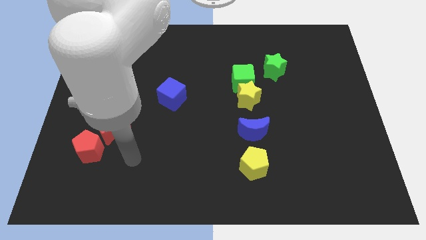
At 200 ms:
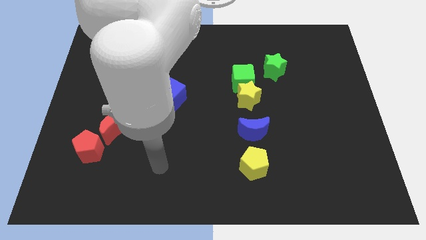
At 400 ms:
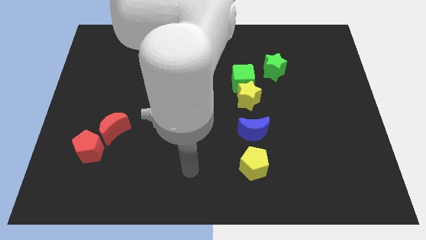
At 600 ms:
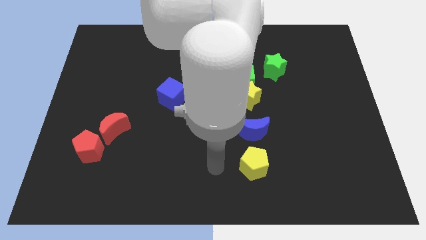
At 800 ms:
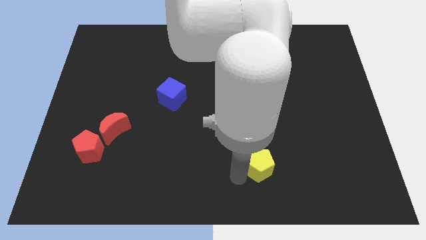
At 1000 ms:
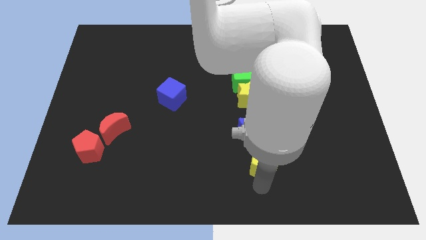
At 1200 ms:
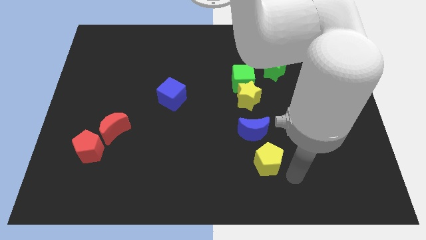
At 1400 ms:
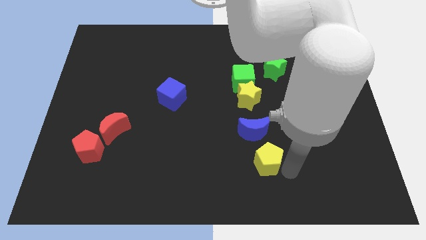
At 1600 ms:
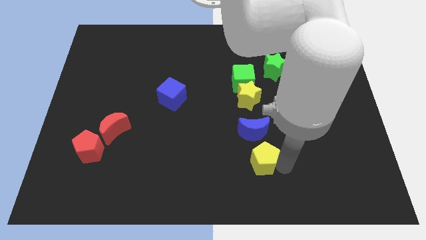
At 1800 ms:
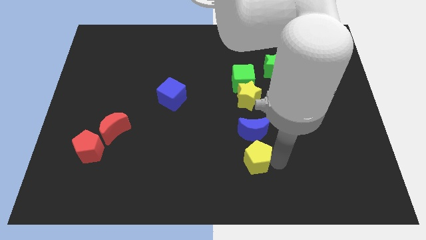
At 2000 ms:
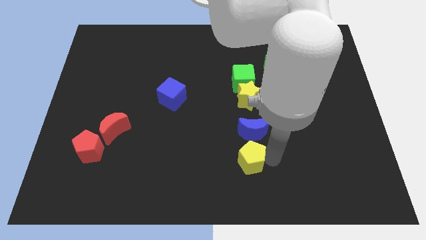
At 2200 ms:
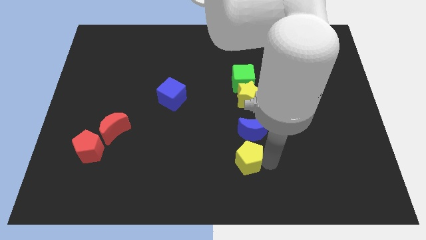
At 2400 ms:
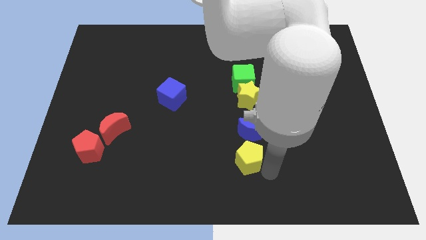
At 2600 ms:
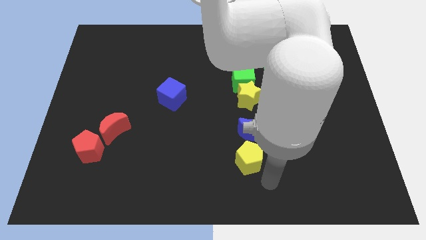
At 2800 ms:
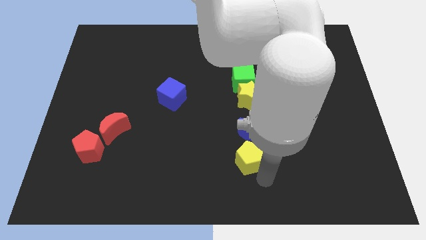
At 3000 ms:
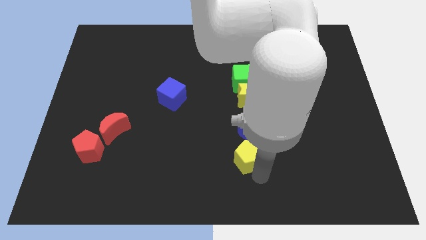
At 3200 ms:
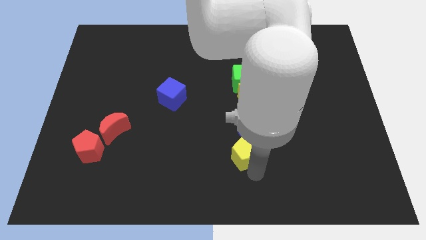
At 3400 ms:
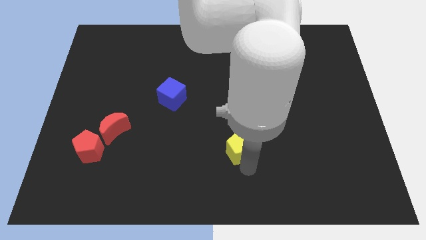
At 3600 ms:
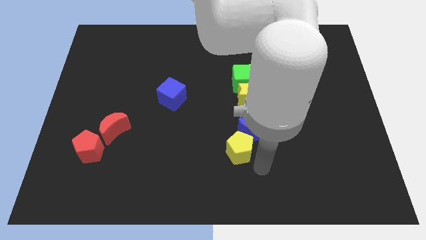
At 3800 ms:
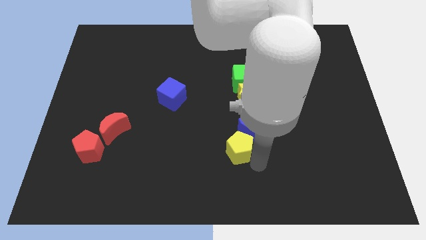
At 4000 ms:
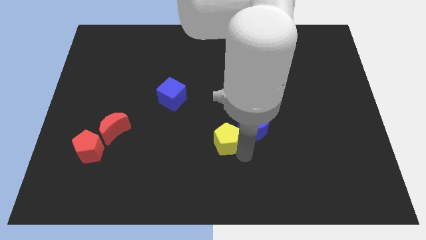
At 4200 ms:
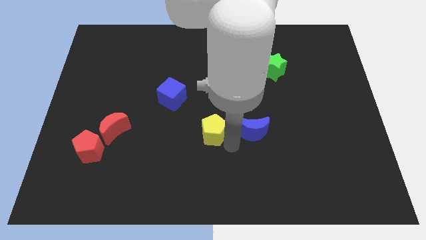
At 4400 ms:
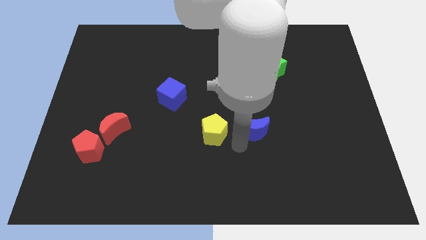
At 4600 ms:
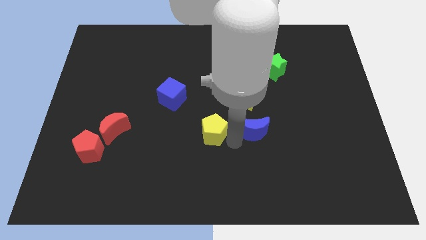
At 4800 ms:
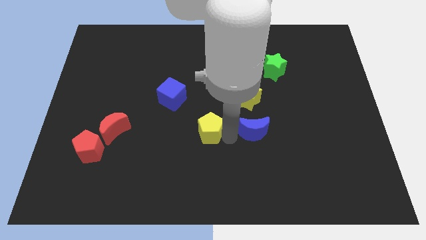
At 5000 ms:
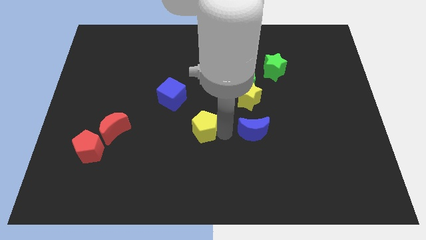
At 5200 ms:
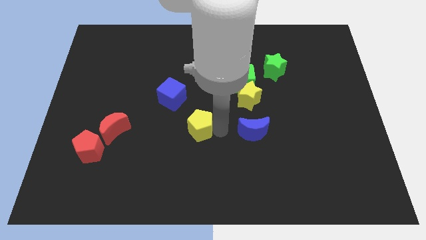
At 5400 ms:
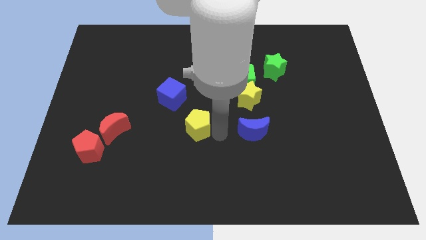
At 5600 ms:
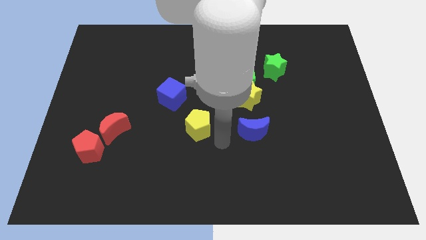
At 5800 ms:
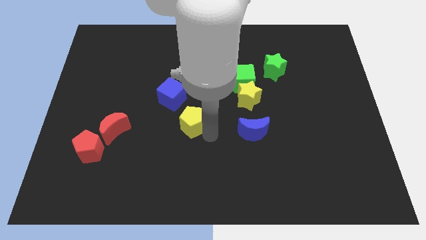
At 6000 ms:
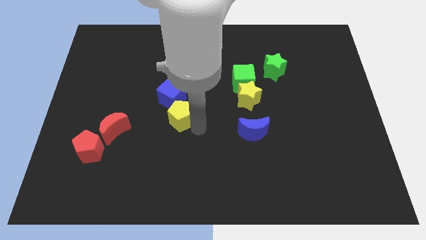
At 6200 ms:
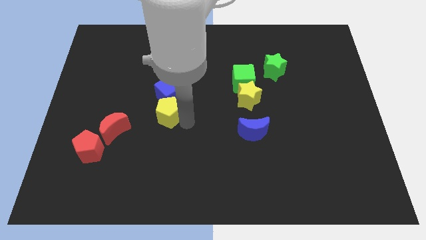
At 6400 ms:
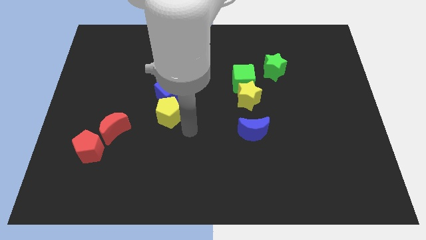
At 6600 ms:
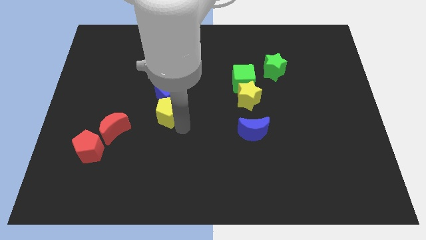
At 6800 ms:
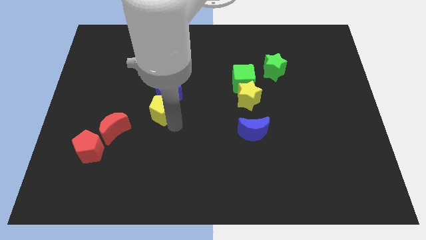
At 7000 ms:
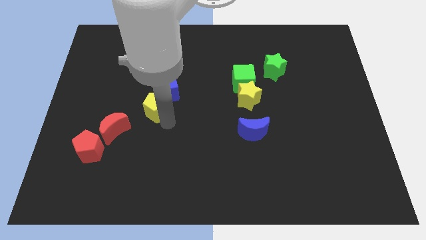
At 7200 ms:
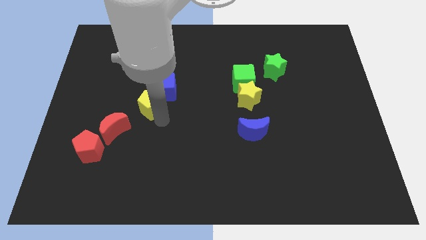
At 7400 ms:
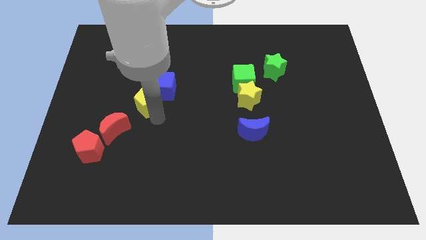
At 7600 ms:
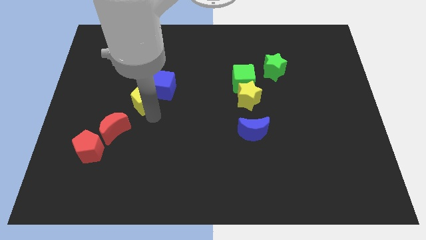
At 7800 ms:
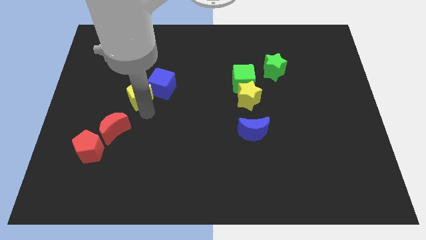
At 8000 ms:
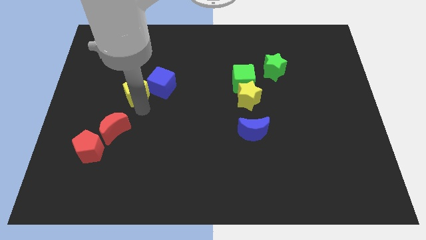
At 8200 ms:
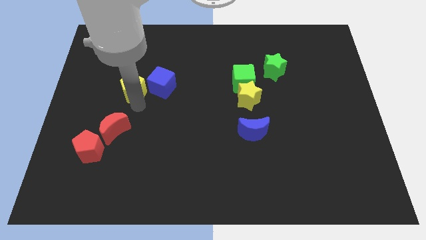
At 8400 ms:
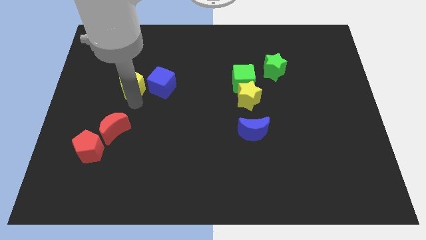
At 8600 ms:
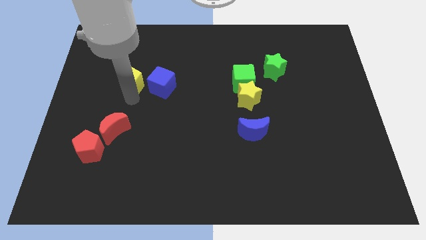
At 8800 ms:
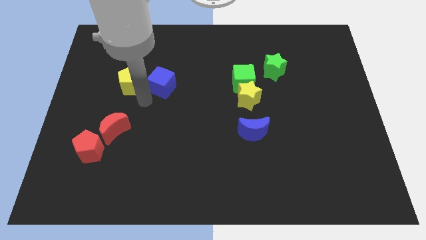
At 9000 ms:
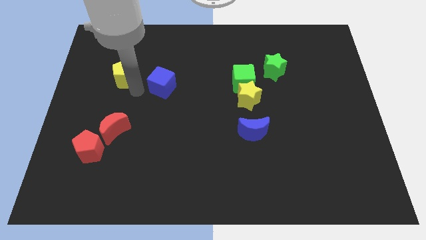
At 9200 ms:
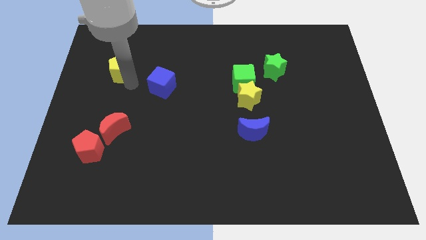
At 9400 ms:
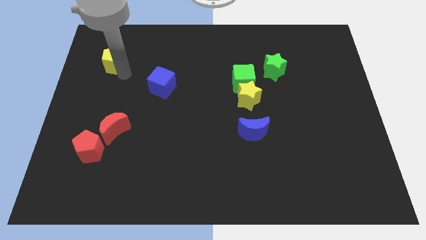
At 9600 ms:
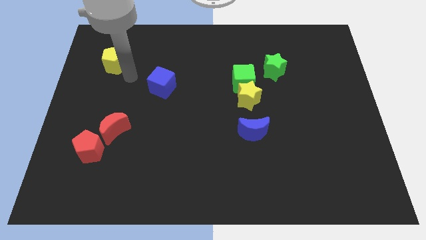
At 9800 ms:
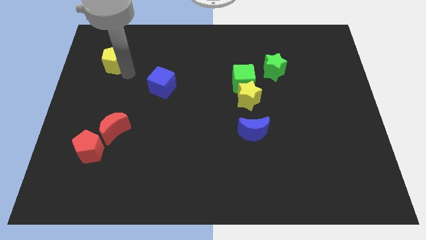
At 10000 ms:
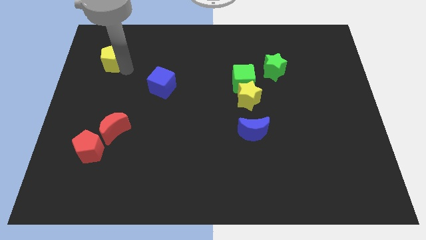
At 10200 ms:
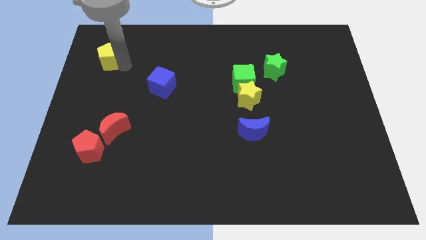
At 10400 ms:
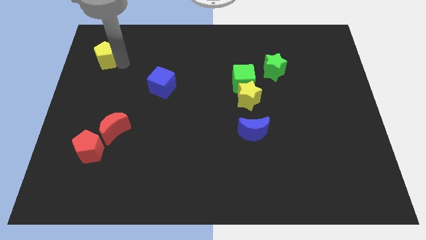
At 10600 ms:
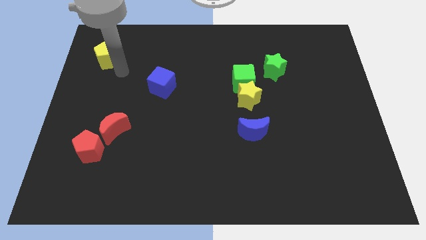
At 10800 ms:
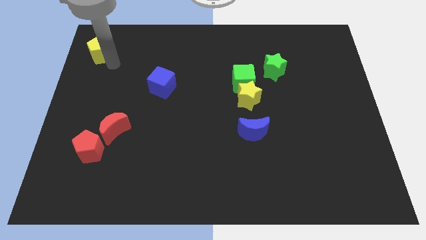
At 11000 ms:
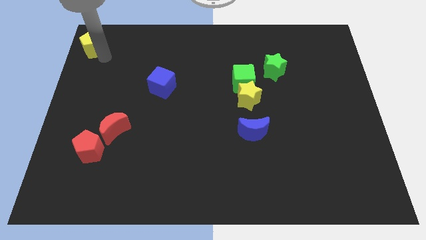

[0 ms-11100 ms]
put the yellow pentagon to the upper left corner

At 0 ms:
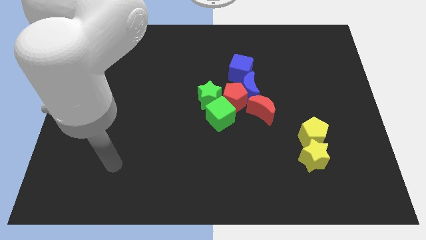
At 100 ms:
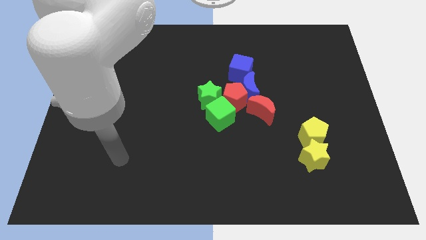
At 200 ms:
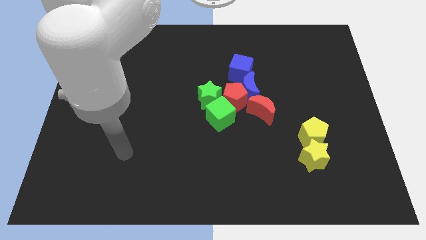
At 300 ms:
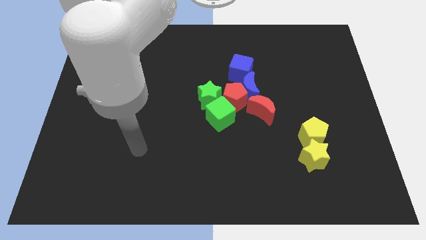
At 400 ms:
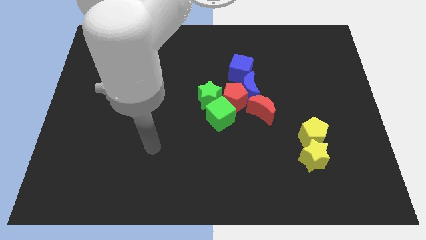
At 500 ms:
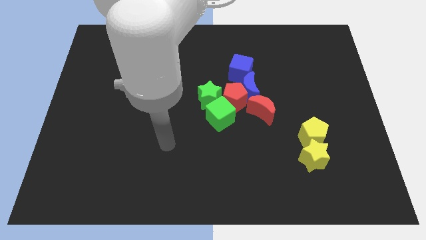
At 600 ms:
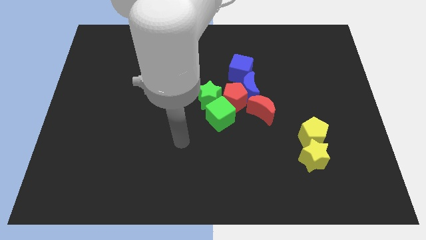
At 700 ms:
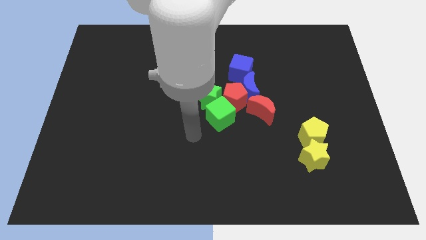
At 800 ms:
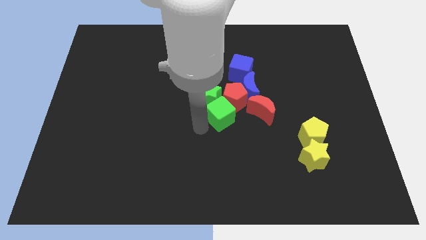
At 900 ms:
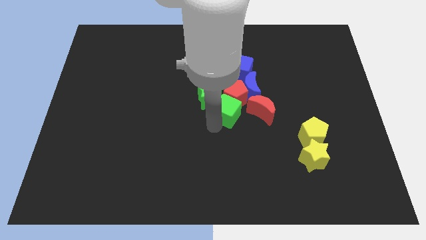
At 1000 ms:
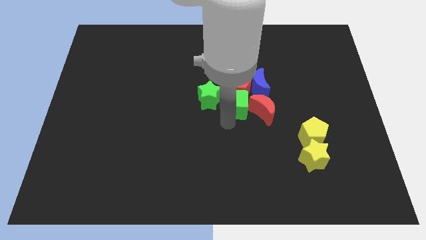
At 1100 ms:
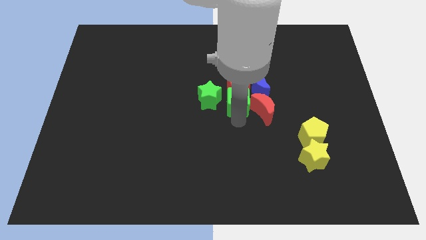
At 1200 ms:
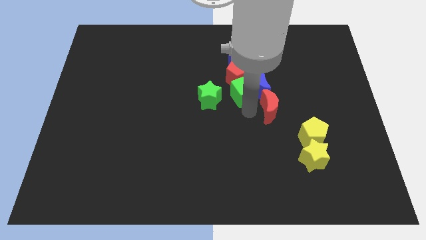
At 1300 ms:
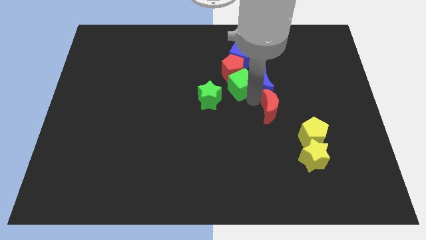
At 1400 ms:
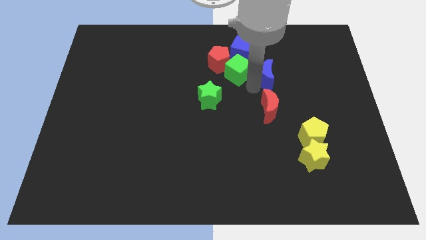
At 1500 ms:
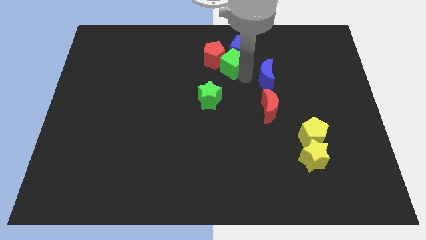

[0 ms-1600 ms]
slide the red pentagon to the top

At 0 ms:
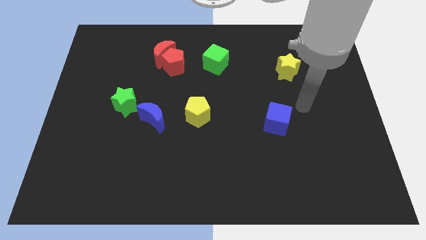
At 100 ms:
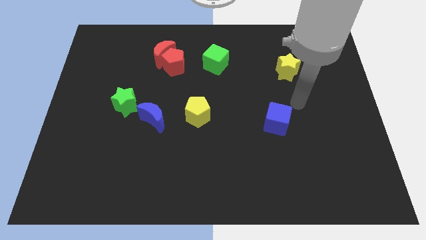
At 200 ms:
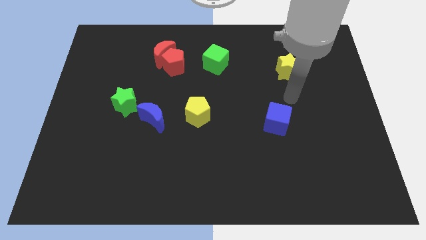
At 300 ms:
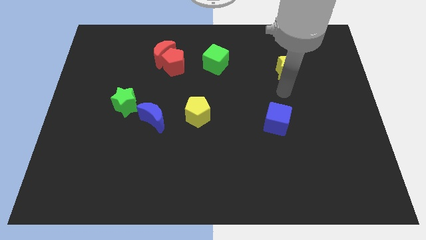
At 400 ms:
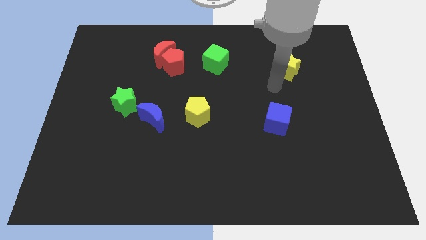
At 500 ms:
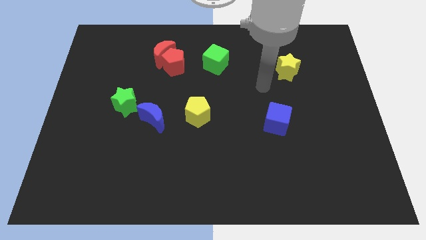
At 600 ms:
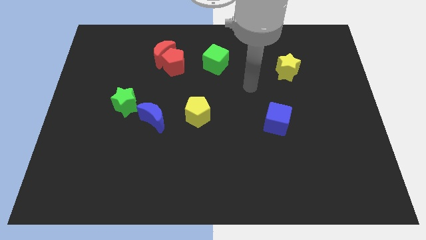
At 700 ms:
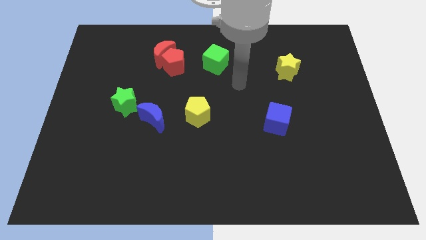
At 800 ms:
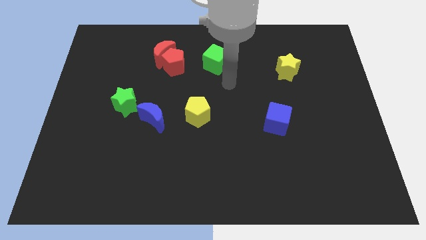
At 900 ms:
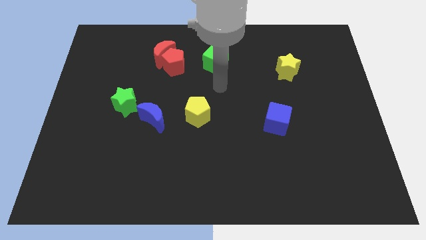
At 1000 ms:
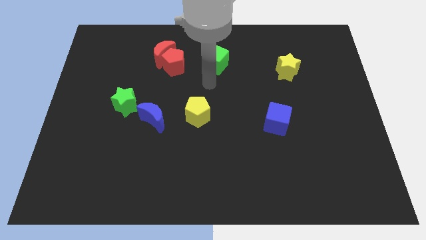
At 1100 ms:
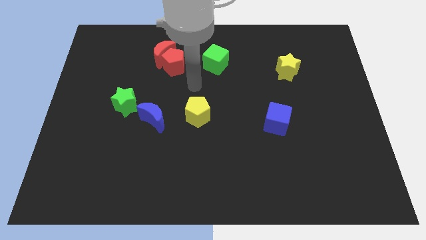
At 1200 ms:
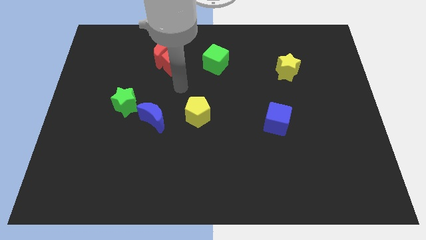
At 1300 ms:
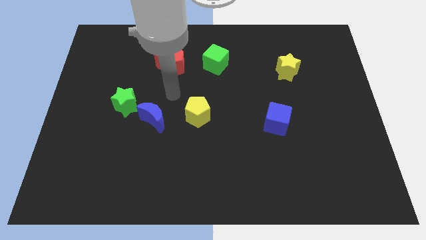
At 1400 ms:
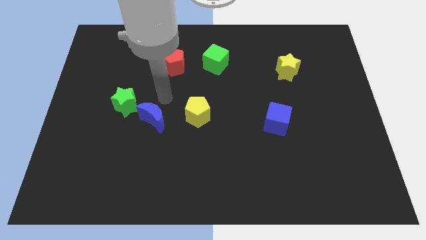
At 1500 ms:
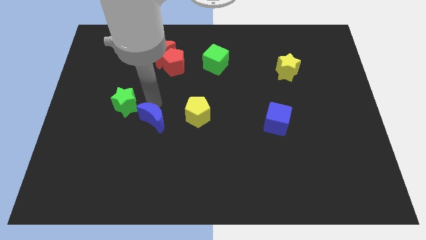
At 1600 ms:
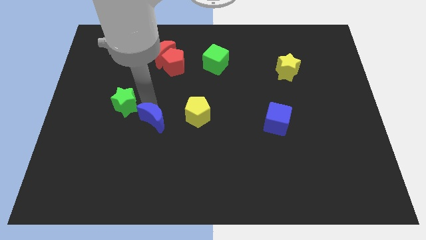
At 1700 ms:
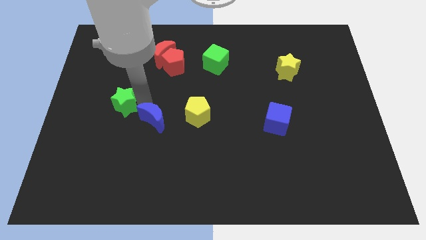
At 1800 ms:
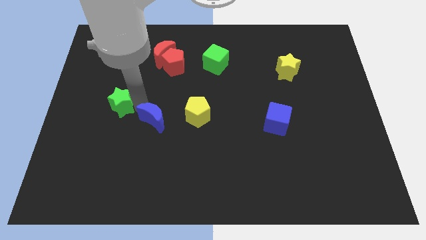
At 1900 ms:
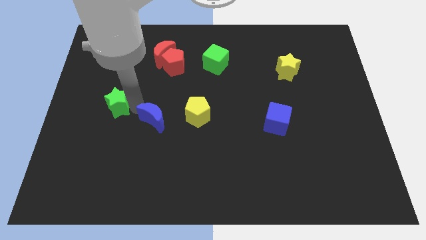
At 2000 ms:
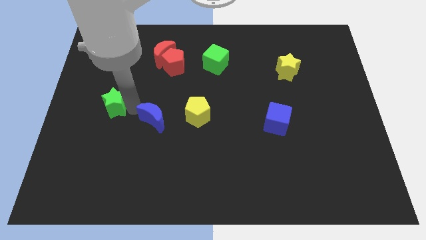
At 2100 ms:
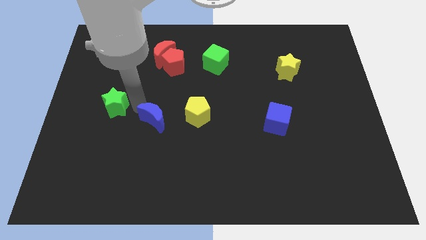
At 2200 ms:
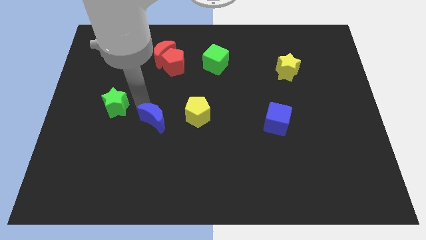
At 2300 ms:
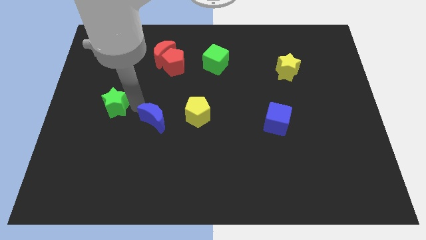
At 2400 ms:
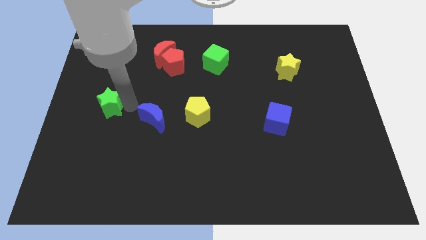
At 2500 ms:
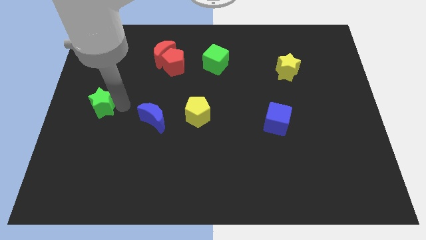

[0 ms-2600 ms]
move the green star to the left side
